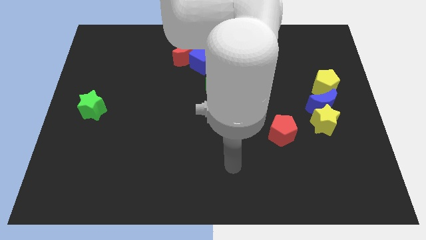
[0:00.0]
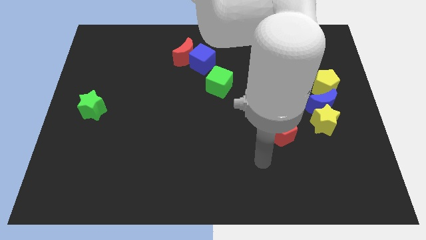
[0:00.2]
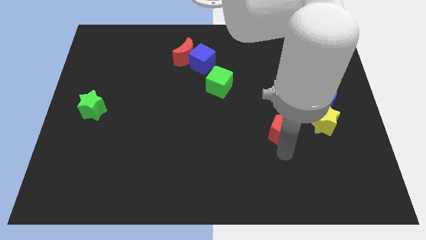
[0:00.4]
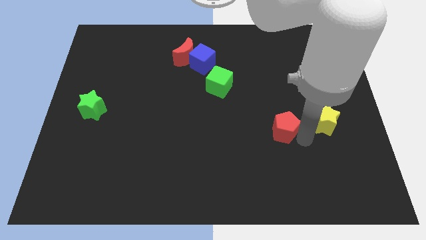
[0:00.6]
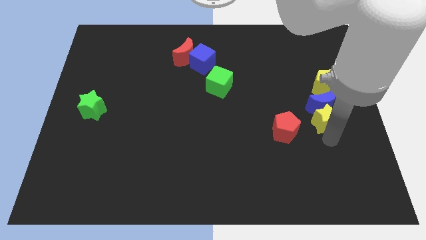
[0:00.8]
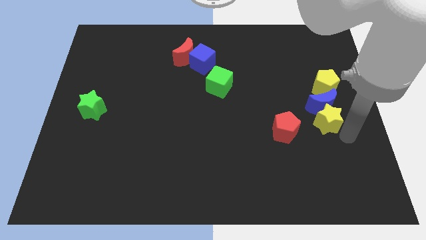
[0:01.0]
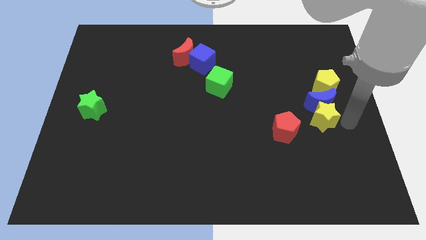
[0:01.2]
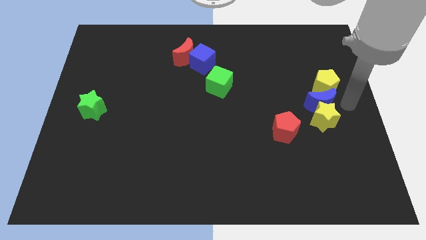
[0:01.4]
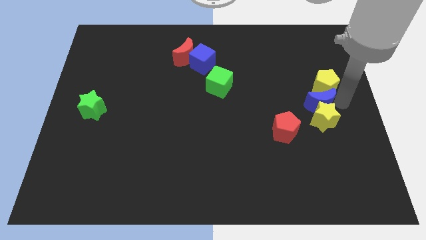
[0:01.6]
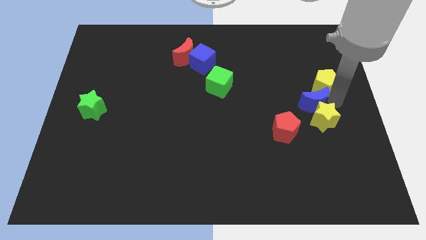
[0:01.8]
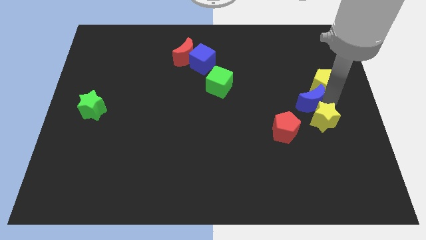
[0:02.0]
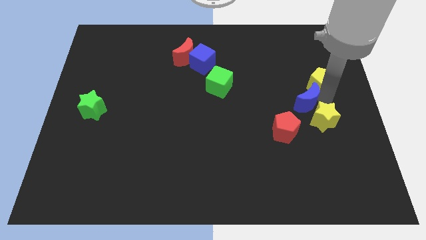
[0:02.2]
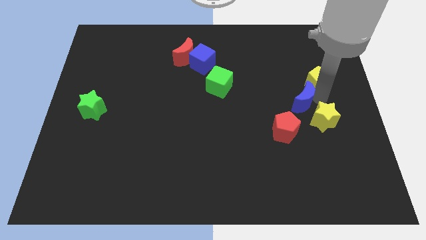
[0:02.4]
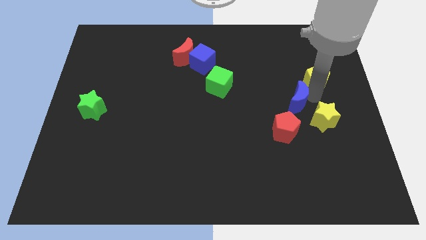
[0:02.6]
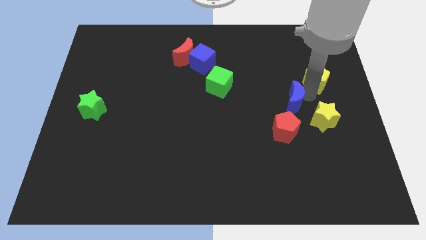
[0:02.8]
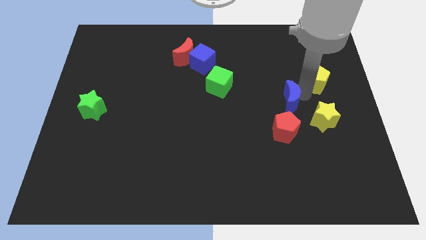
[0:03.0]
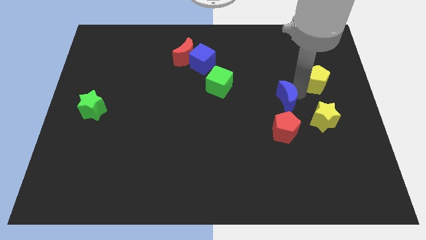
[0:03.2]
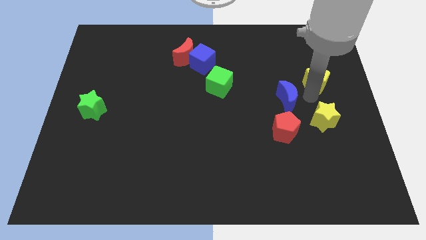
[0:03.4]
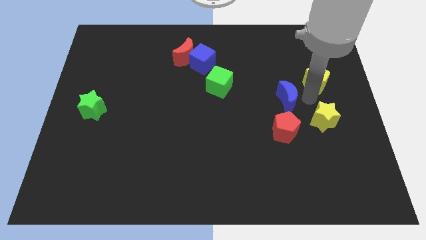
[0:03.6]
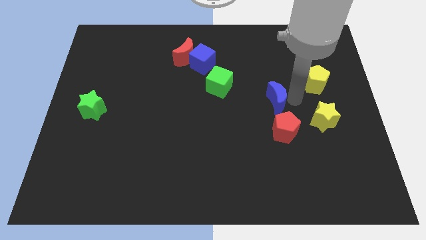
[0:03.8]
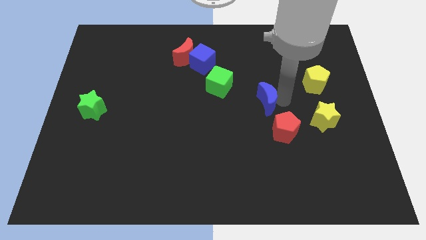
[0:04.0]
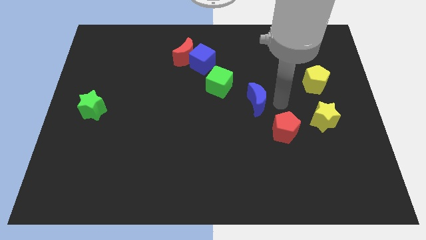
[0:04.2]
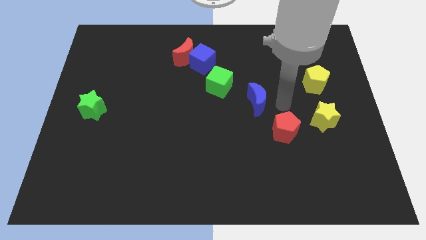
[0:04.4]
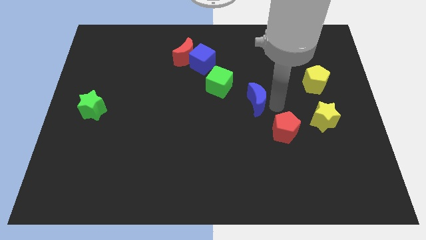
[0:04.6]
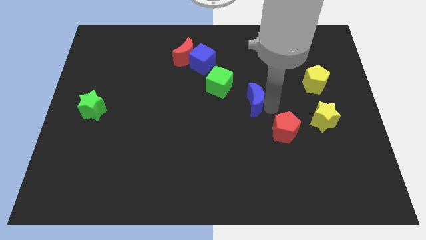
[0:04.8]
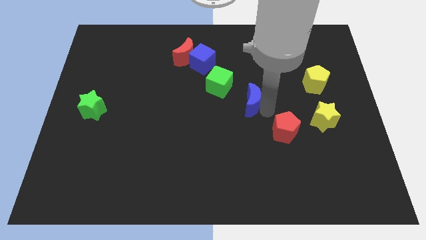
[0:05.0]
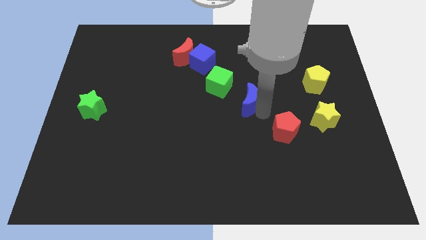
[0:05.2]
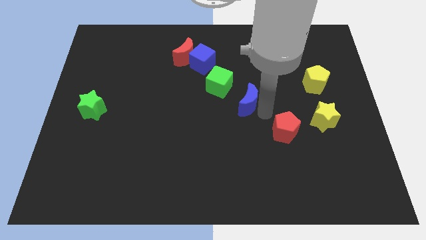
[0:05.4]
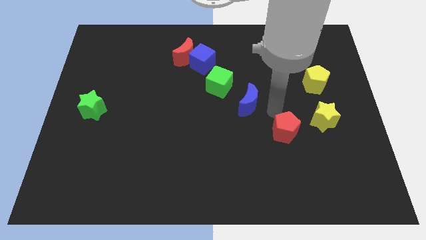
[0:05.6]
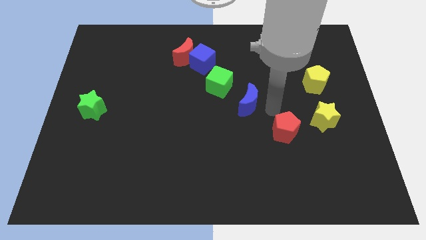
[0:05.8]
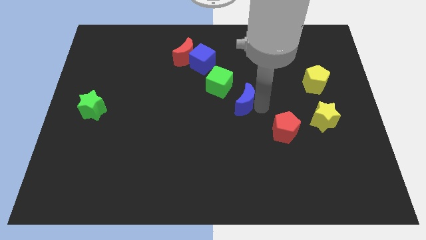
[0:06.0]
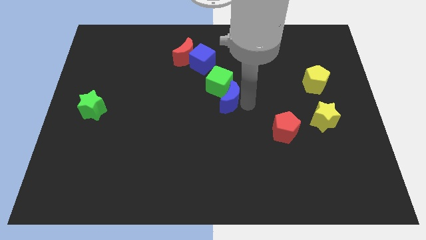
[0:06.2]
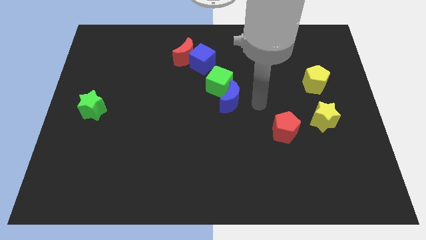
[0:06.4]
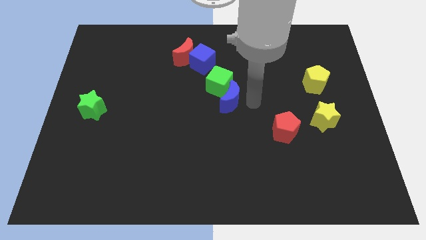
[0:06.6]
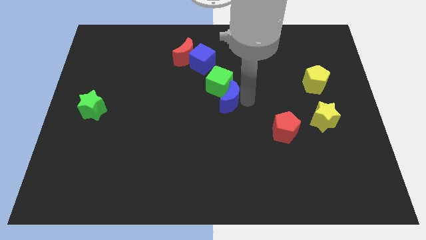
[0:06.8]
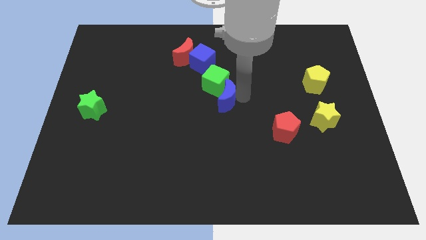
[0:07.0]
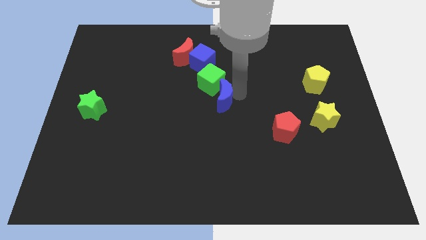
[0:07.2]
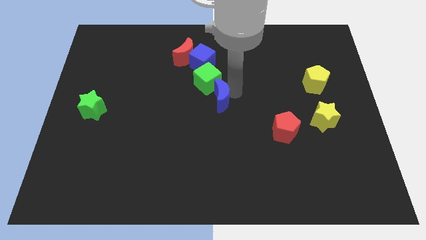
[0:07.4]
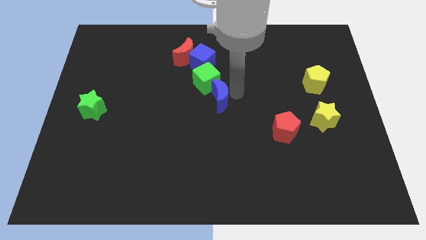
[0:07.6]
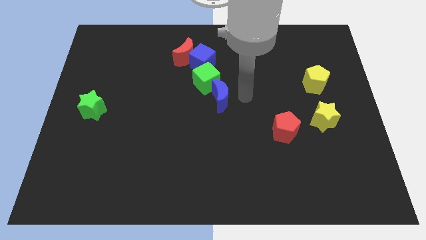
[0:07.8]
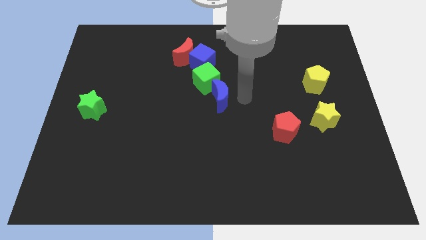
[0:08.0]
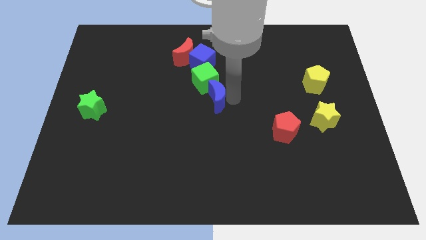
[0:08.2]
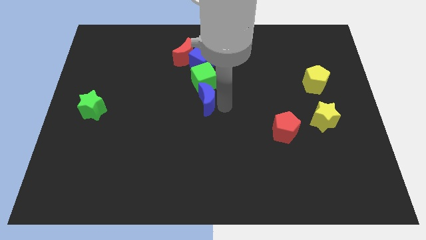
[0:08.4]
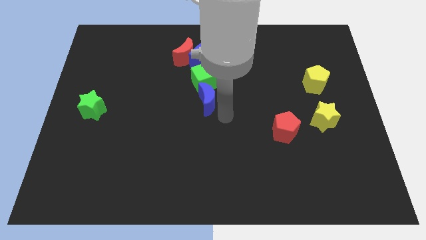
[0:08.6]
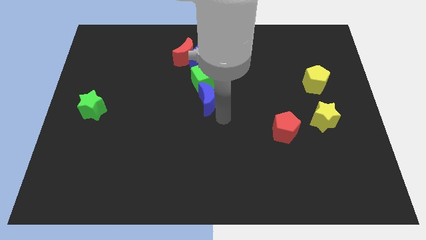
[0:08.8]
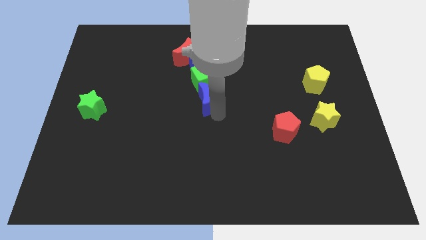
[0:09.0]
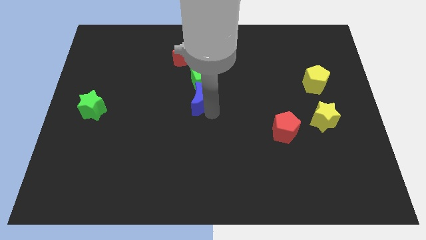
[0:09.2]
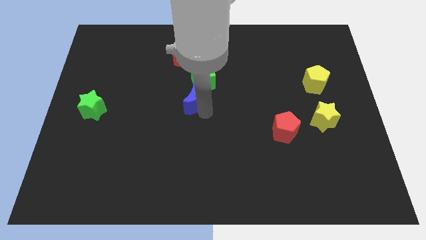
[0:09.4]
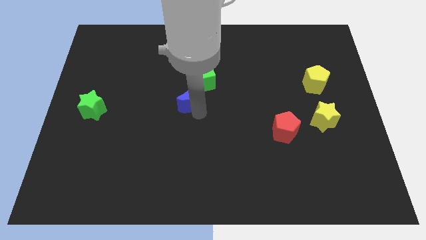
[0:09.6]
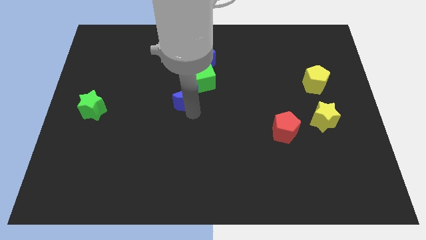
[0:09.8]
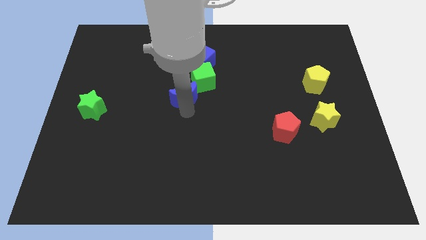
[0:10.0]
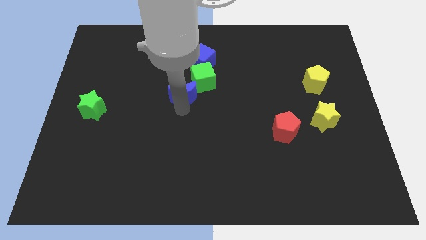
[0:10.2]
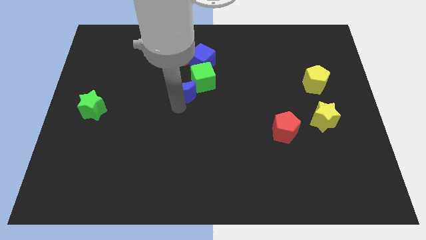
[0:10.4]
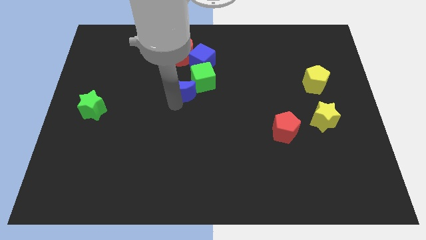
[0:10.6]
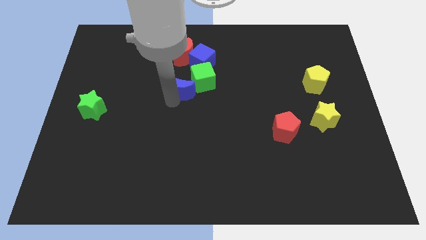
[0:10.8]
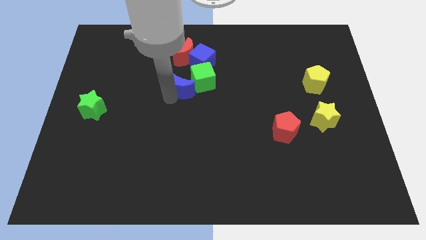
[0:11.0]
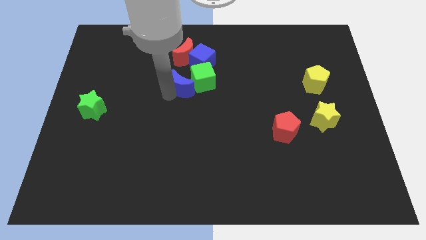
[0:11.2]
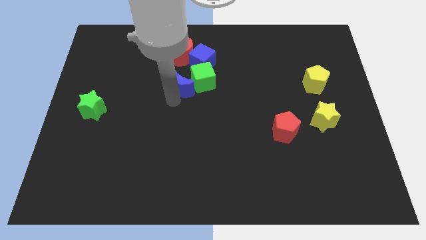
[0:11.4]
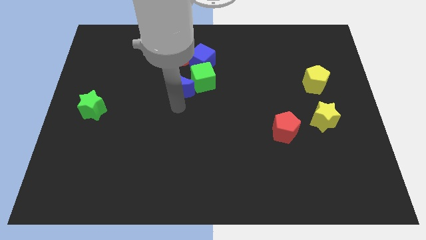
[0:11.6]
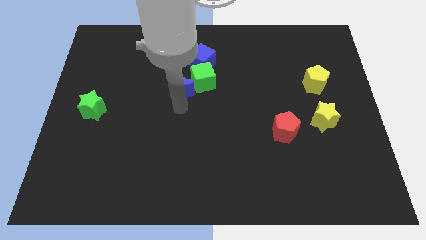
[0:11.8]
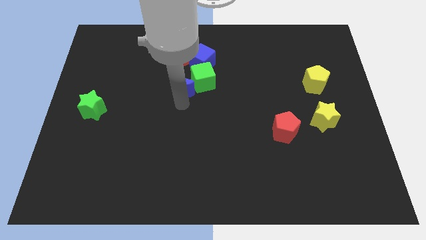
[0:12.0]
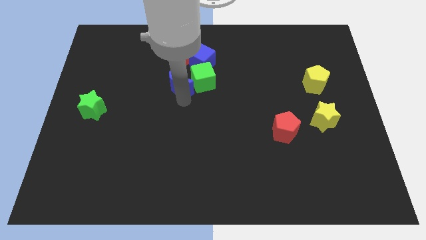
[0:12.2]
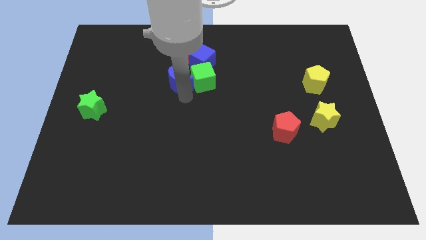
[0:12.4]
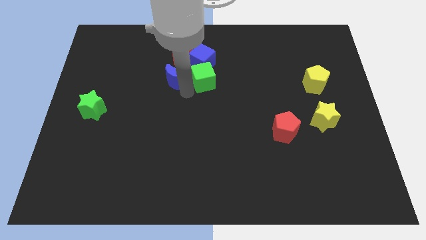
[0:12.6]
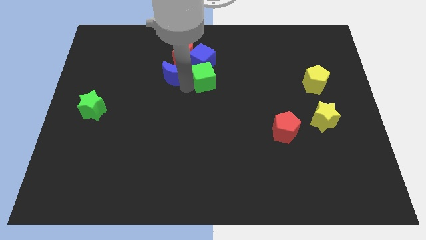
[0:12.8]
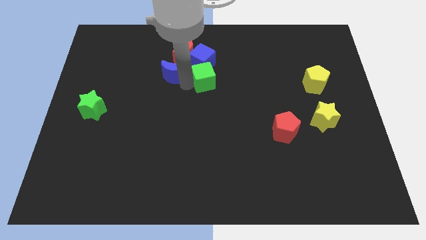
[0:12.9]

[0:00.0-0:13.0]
put the blue moon just left of the blue cube
